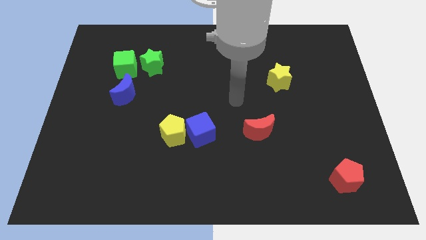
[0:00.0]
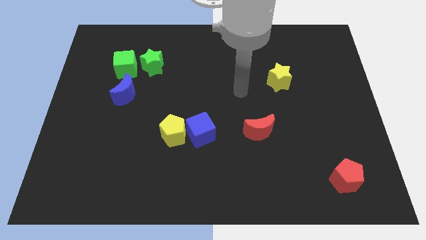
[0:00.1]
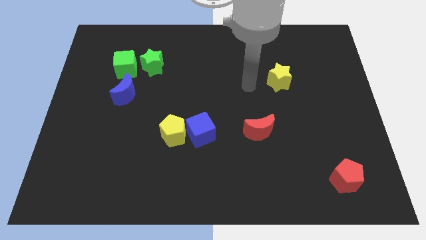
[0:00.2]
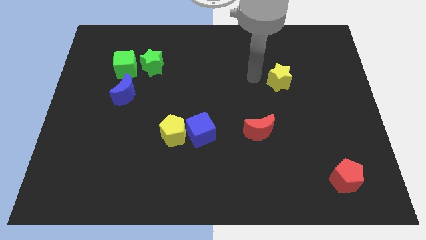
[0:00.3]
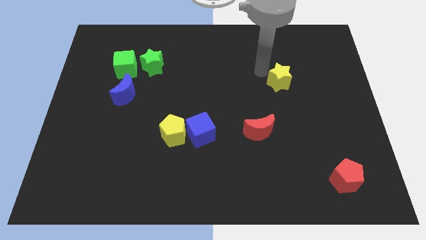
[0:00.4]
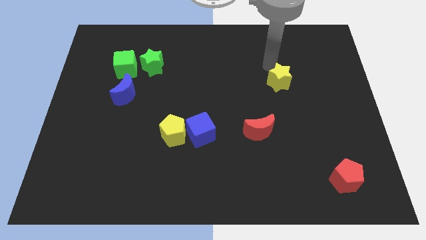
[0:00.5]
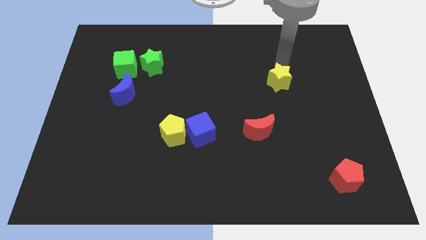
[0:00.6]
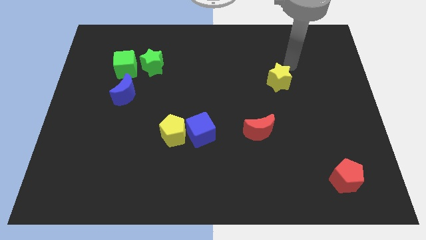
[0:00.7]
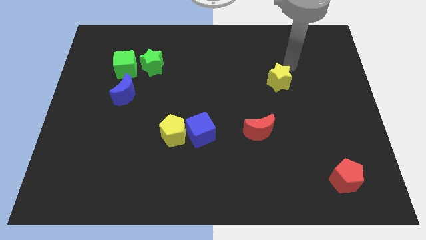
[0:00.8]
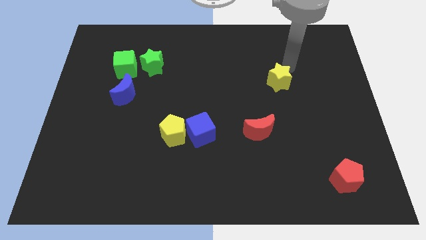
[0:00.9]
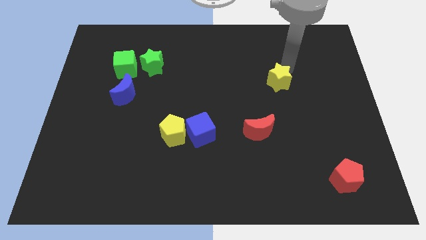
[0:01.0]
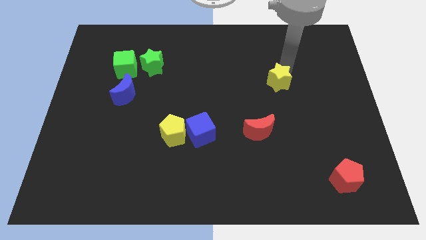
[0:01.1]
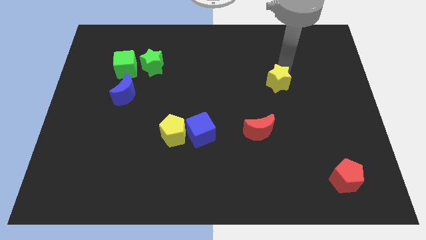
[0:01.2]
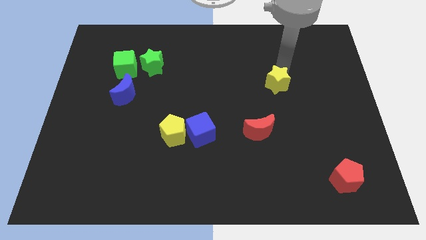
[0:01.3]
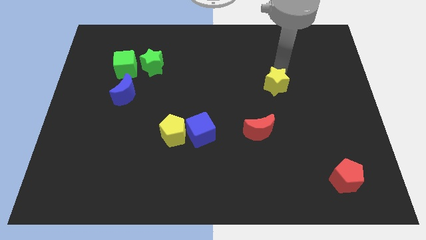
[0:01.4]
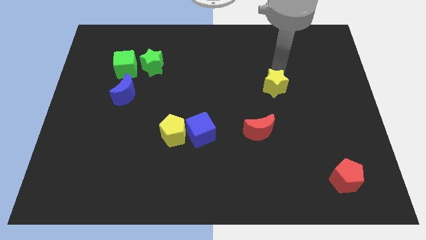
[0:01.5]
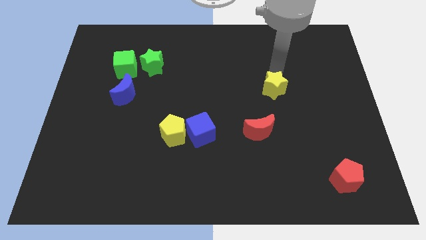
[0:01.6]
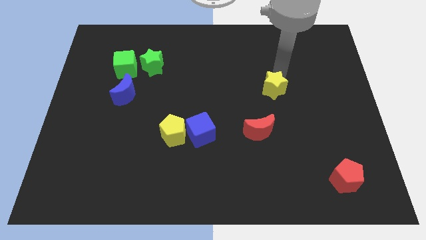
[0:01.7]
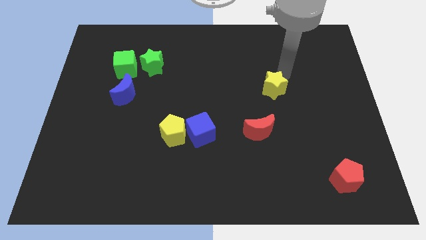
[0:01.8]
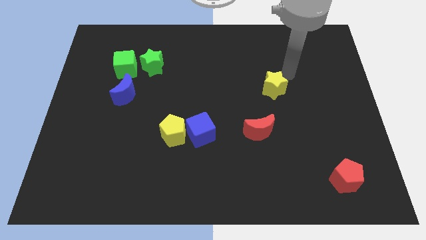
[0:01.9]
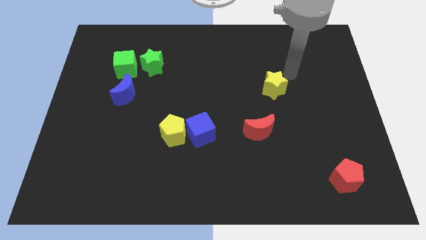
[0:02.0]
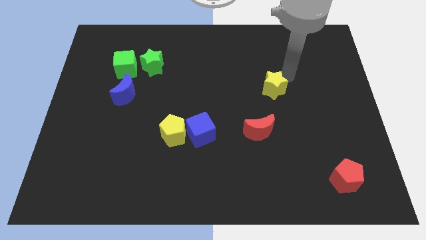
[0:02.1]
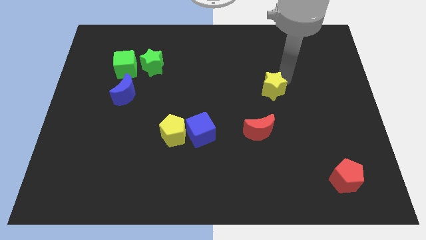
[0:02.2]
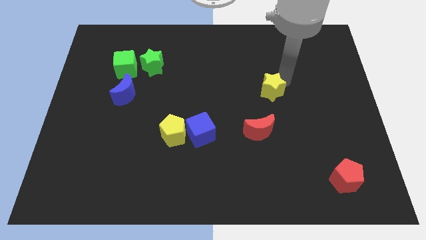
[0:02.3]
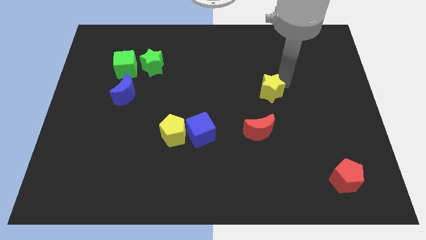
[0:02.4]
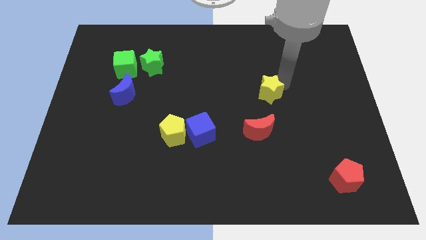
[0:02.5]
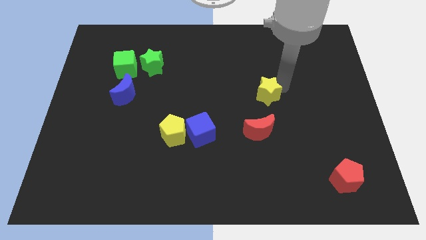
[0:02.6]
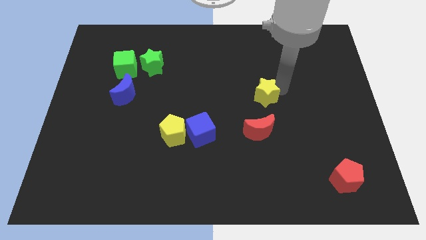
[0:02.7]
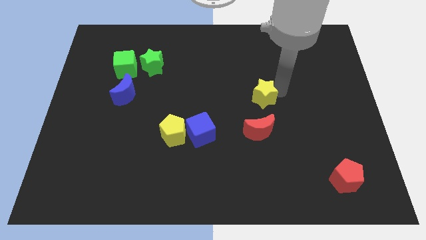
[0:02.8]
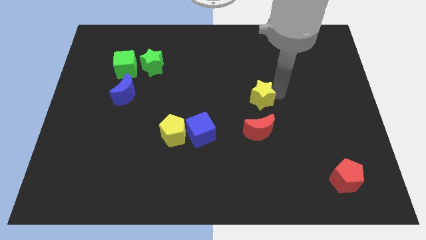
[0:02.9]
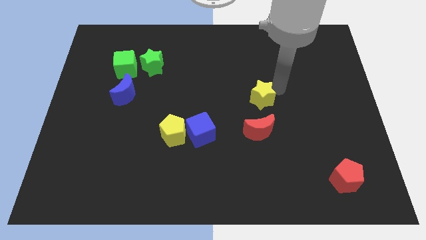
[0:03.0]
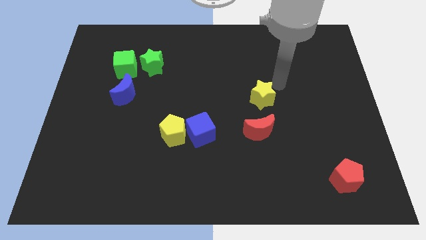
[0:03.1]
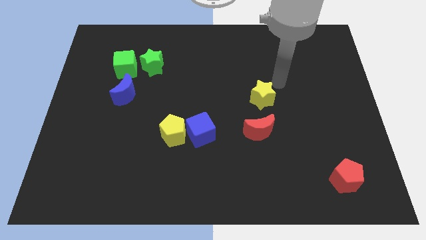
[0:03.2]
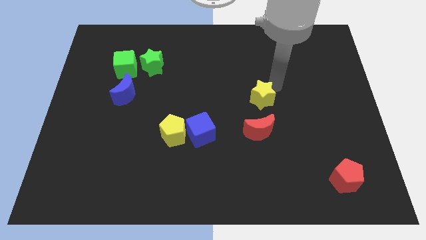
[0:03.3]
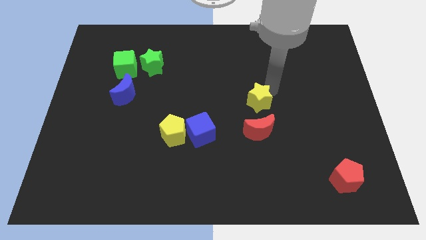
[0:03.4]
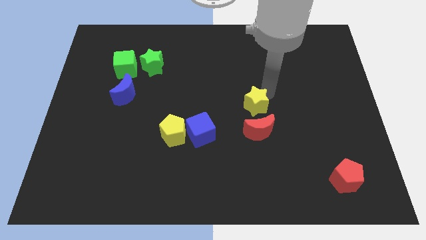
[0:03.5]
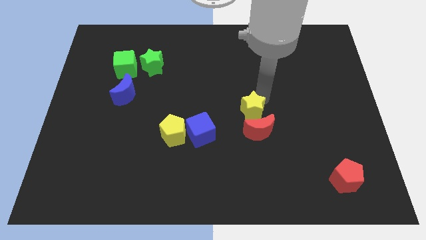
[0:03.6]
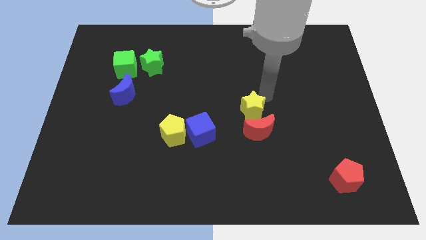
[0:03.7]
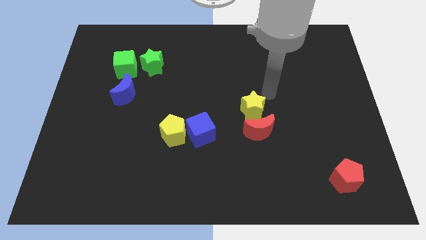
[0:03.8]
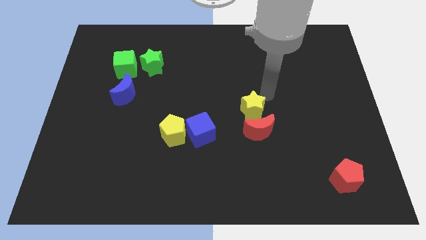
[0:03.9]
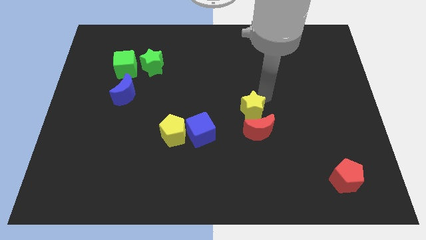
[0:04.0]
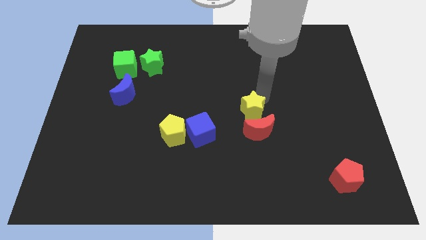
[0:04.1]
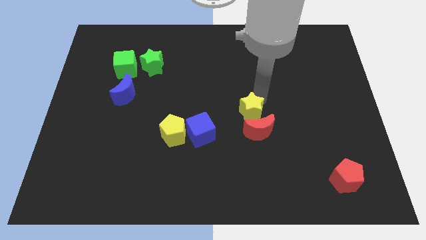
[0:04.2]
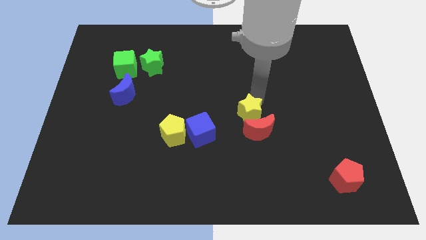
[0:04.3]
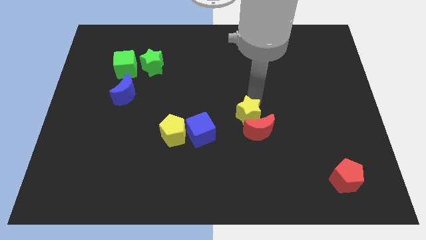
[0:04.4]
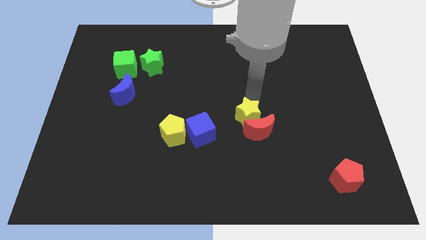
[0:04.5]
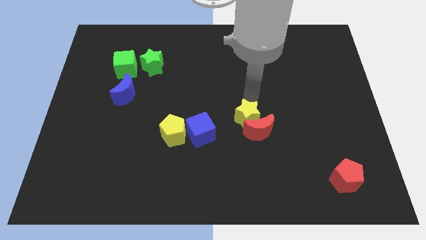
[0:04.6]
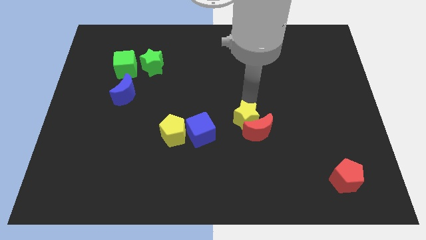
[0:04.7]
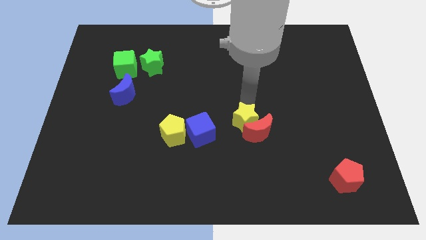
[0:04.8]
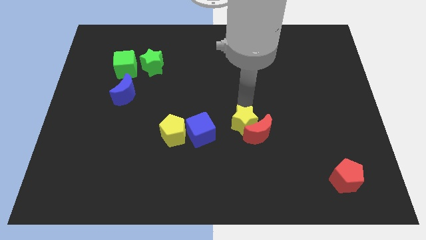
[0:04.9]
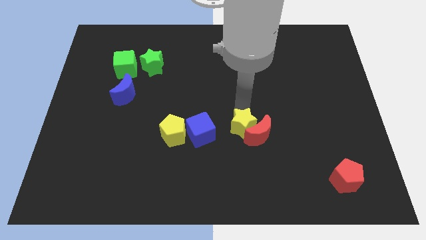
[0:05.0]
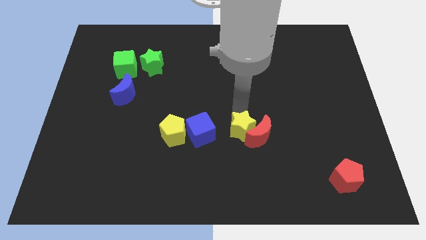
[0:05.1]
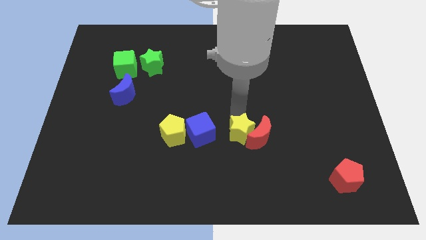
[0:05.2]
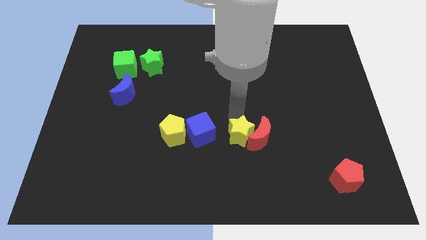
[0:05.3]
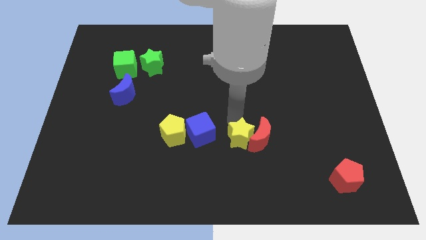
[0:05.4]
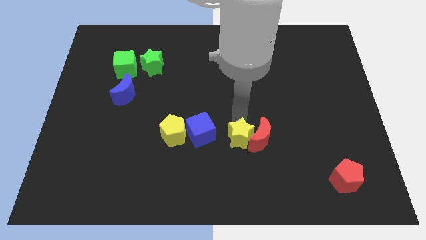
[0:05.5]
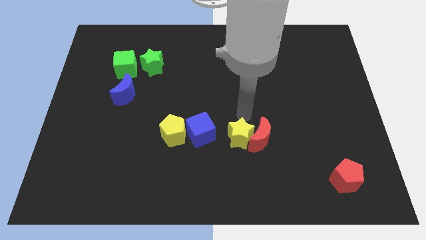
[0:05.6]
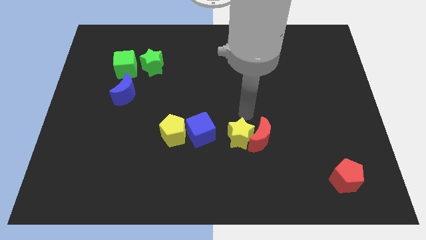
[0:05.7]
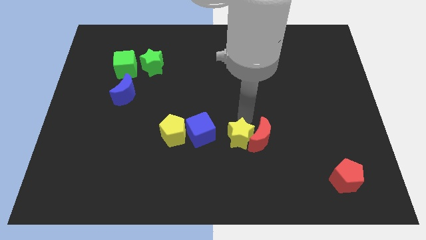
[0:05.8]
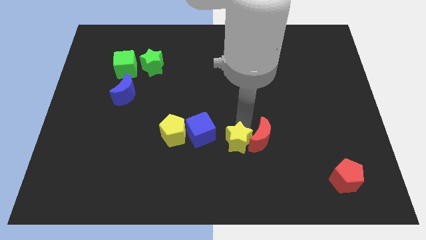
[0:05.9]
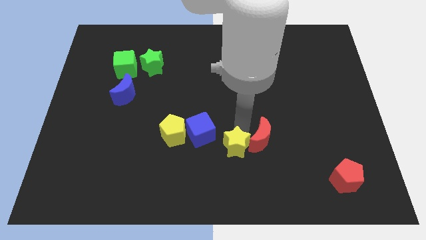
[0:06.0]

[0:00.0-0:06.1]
push the yellow star diagonally downwards and left

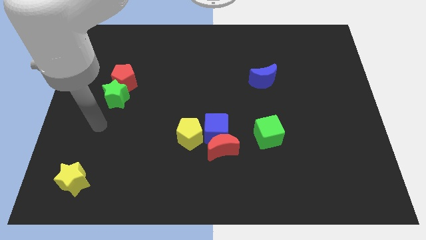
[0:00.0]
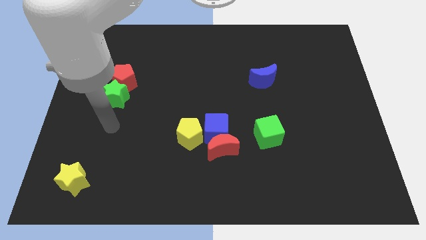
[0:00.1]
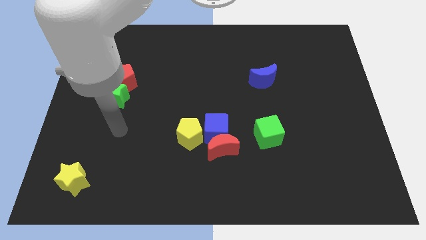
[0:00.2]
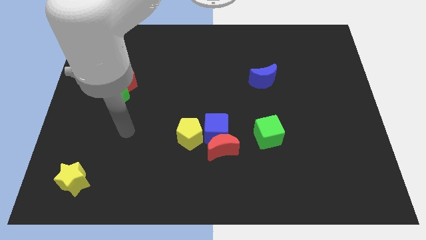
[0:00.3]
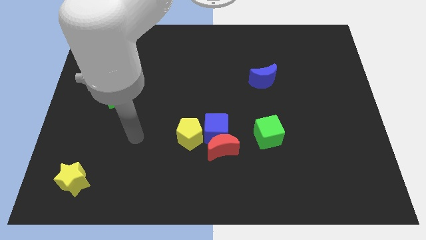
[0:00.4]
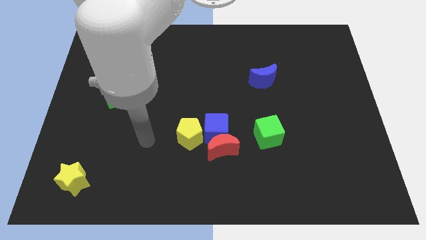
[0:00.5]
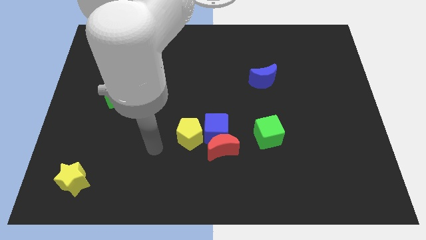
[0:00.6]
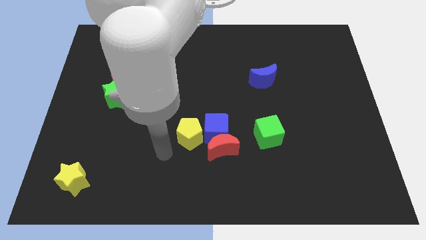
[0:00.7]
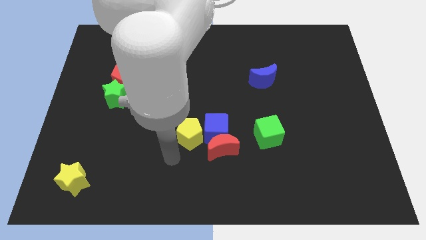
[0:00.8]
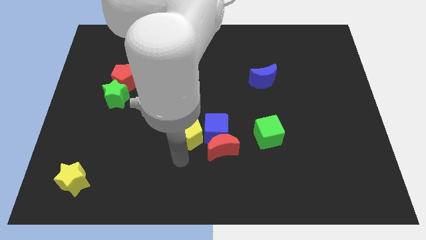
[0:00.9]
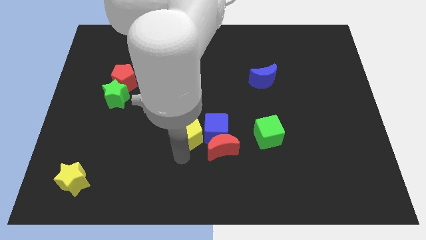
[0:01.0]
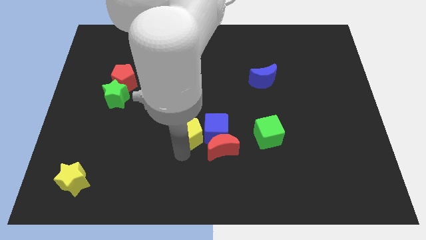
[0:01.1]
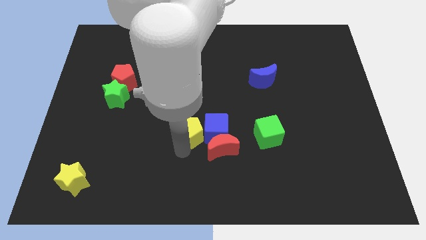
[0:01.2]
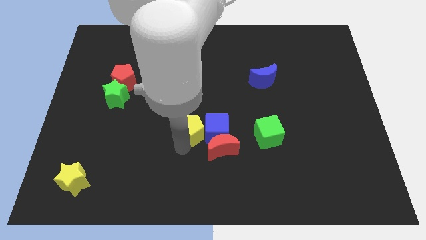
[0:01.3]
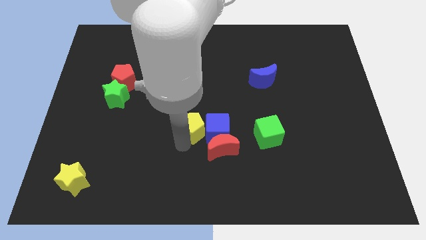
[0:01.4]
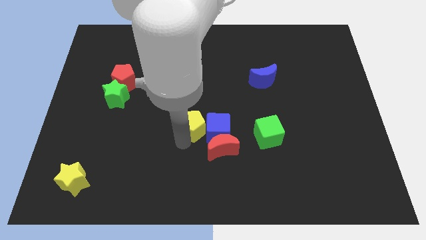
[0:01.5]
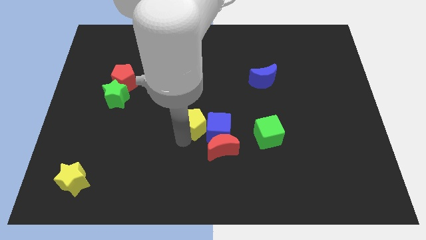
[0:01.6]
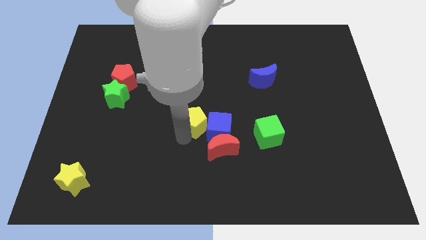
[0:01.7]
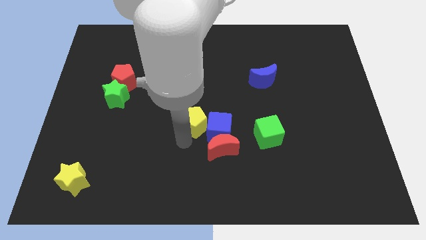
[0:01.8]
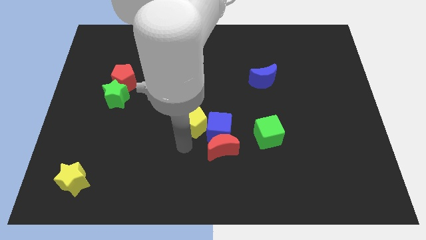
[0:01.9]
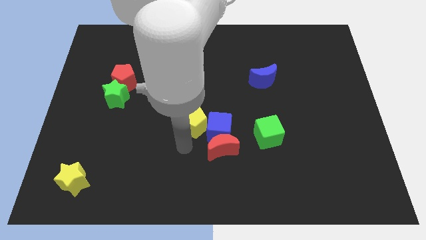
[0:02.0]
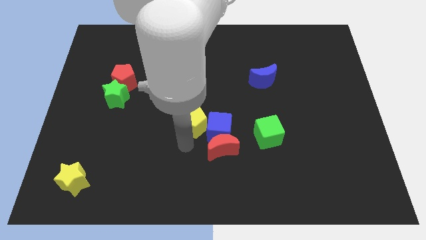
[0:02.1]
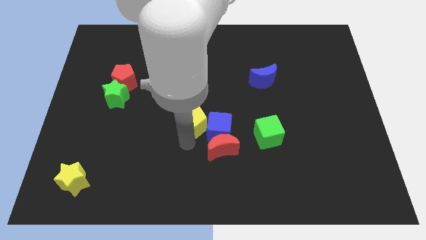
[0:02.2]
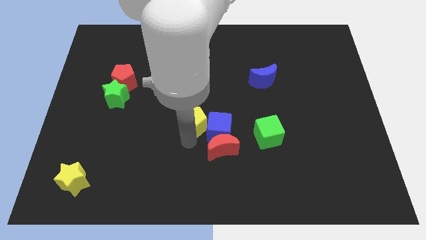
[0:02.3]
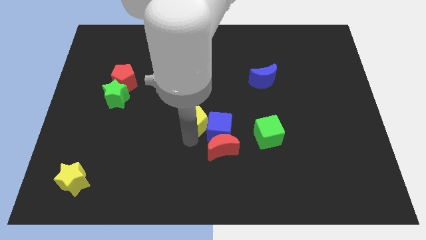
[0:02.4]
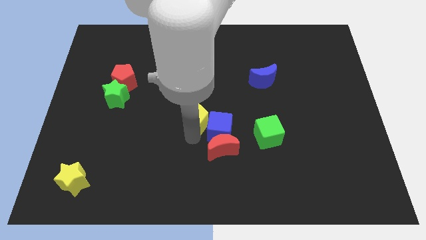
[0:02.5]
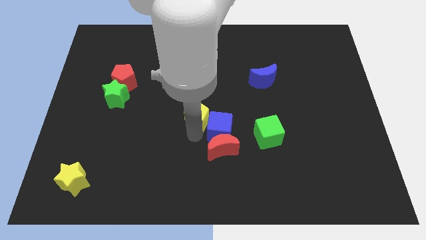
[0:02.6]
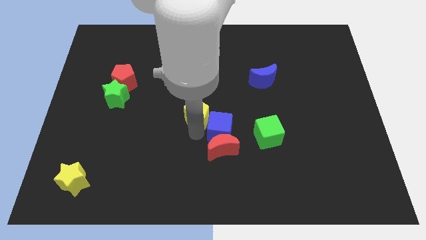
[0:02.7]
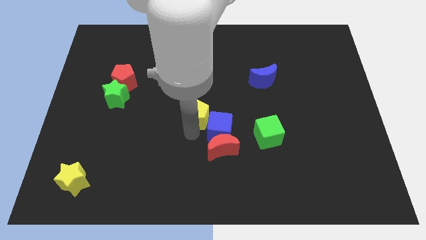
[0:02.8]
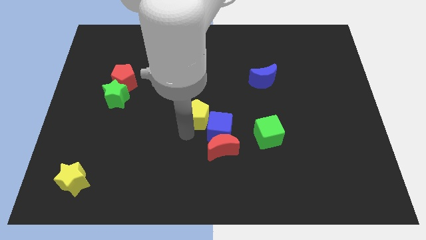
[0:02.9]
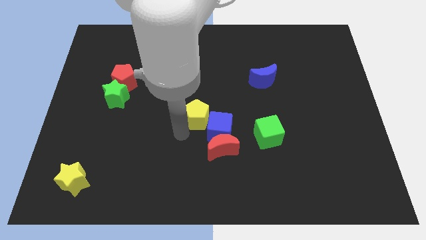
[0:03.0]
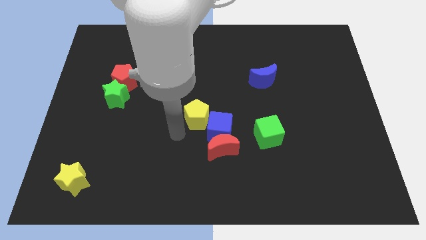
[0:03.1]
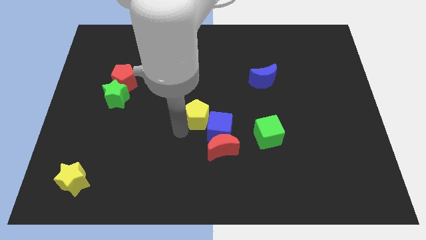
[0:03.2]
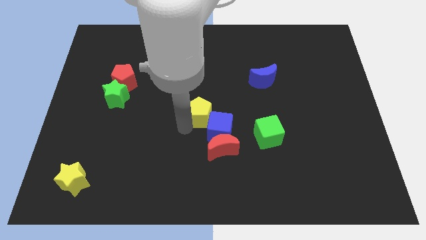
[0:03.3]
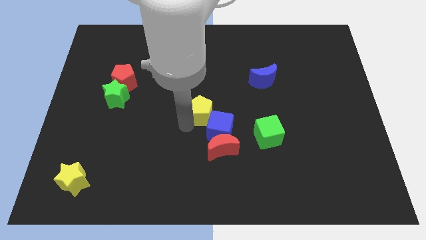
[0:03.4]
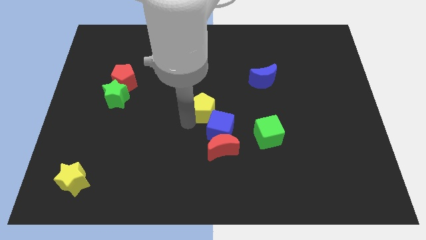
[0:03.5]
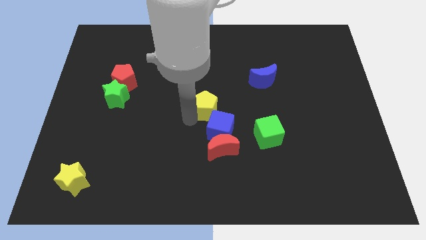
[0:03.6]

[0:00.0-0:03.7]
push the yellow pentagon a little diagonally upwards and to the right
